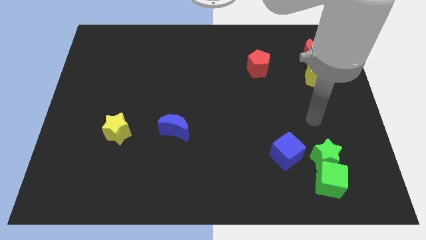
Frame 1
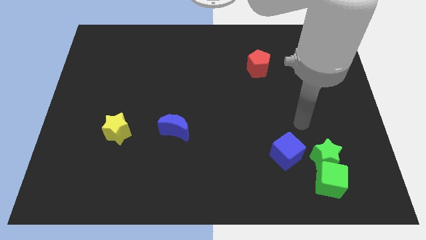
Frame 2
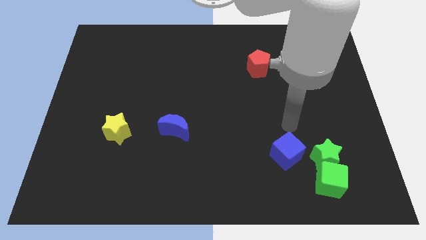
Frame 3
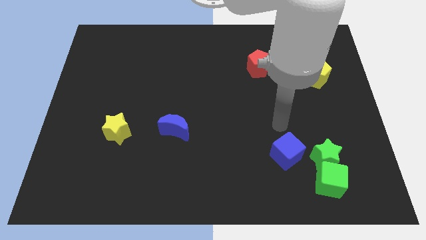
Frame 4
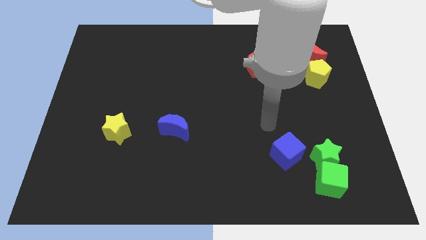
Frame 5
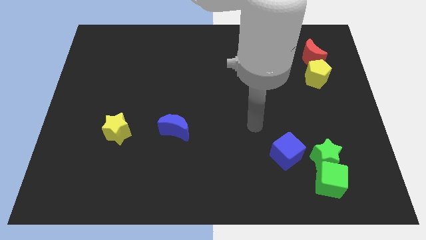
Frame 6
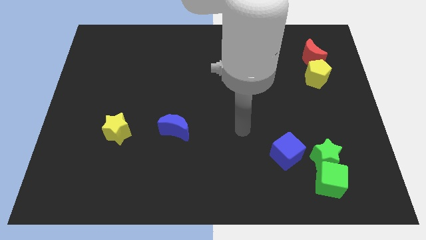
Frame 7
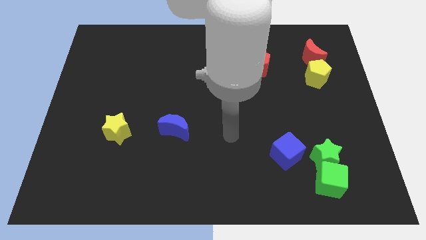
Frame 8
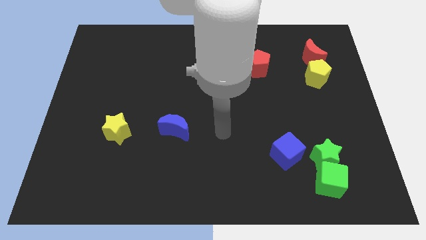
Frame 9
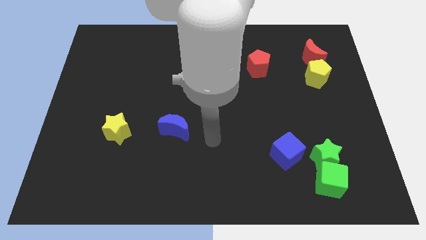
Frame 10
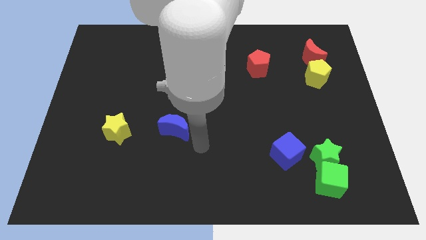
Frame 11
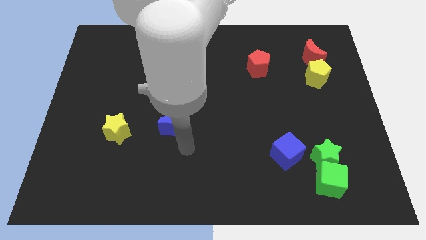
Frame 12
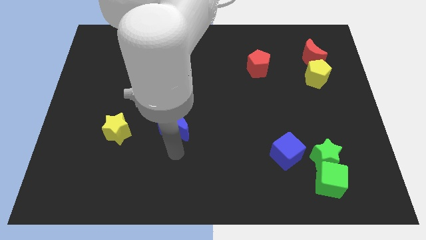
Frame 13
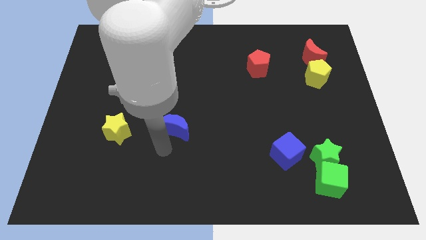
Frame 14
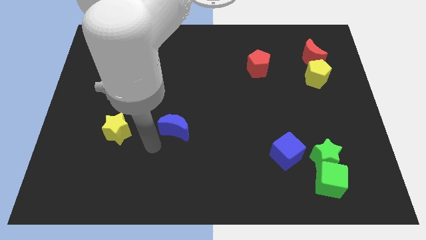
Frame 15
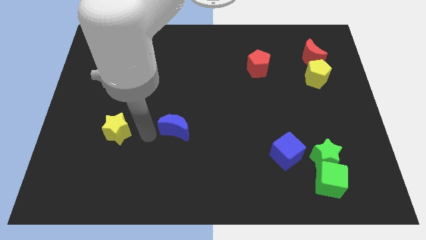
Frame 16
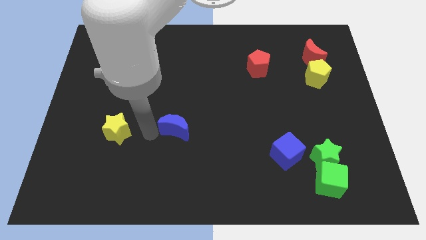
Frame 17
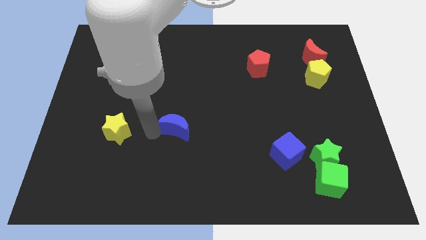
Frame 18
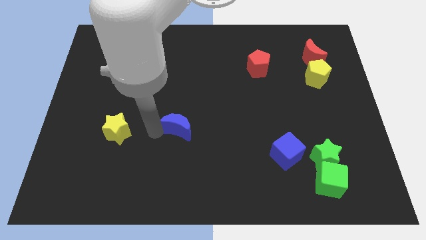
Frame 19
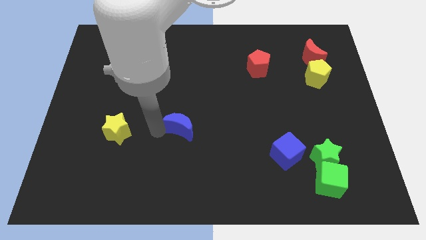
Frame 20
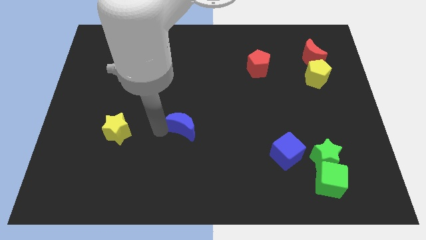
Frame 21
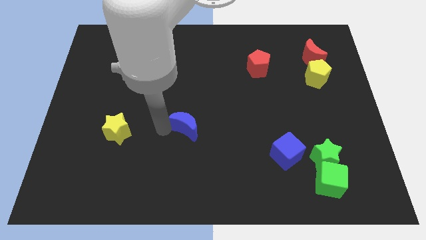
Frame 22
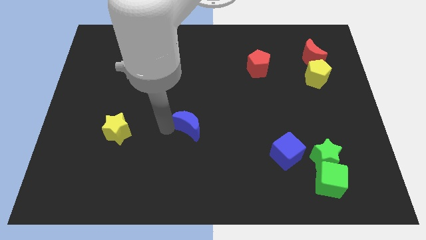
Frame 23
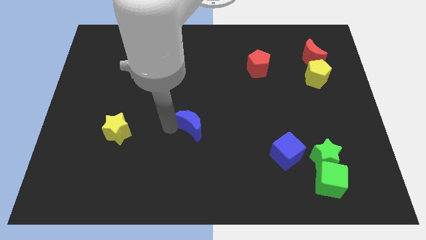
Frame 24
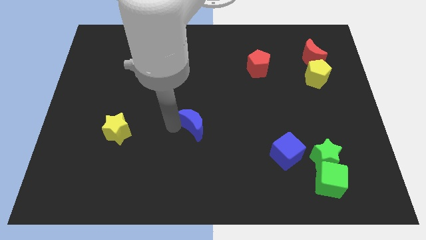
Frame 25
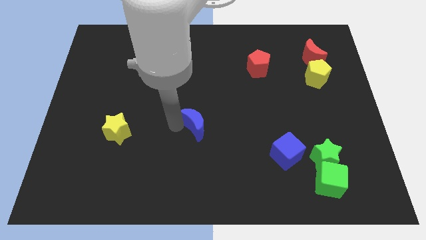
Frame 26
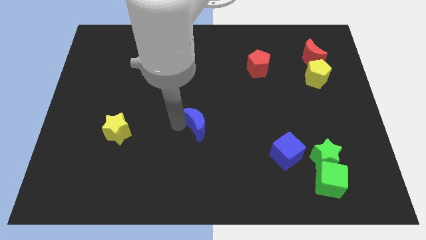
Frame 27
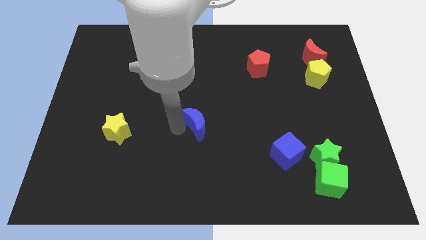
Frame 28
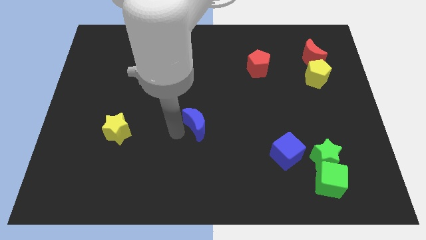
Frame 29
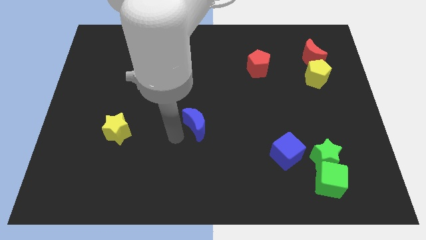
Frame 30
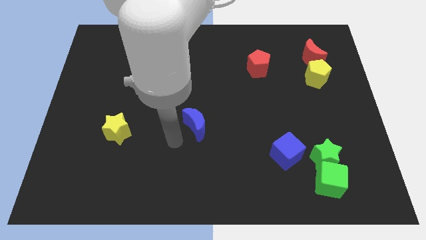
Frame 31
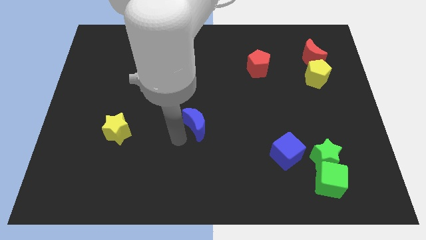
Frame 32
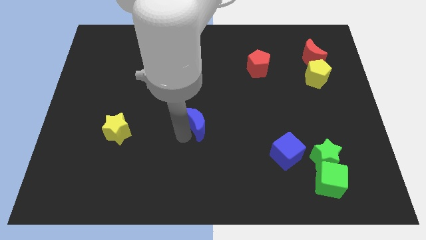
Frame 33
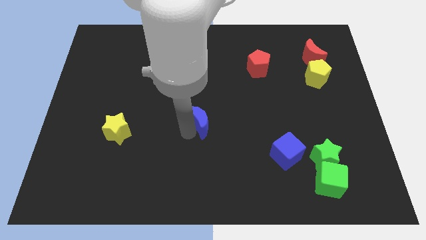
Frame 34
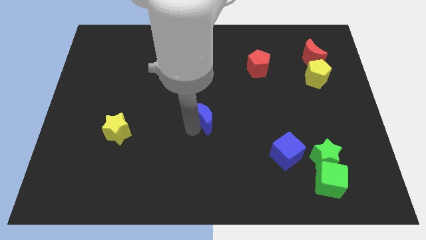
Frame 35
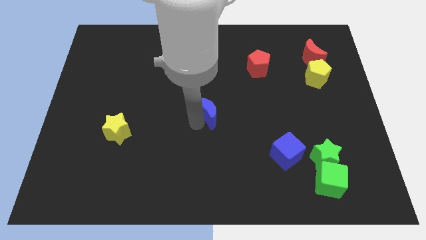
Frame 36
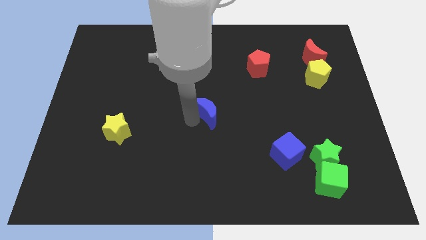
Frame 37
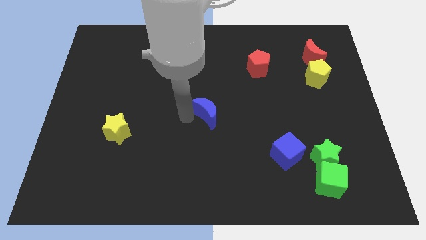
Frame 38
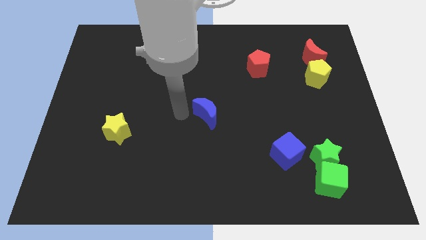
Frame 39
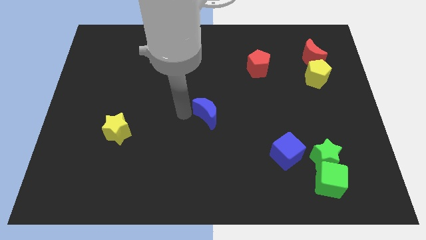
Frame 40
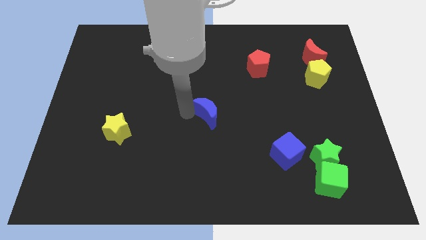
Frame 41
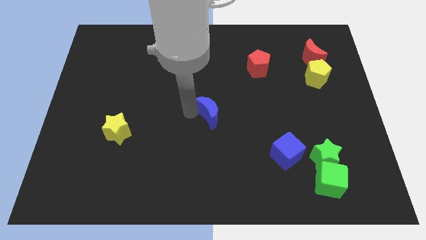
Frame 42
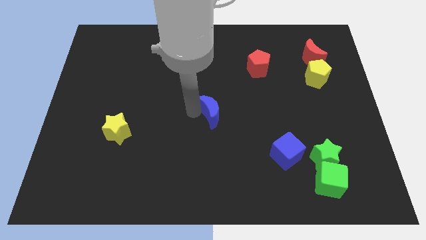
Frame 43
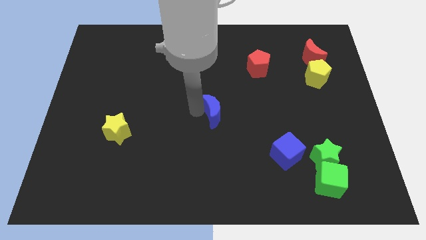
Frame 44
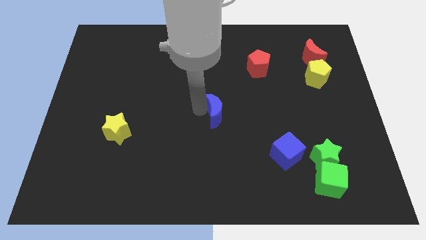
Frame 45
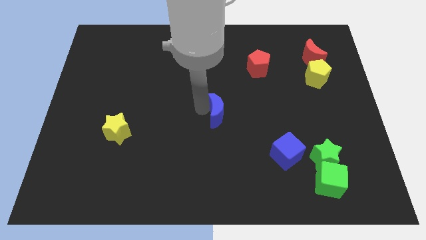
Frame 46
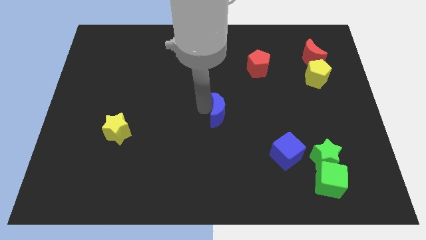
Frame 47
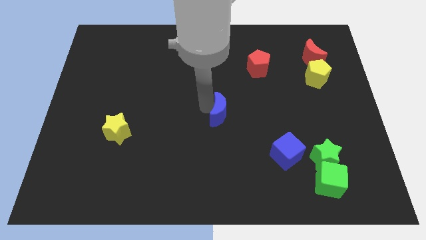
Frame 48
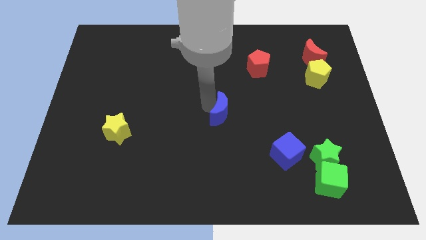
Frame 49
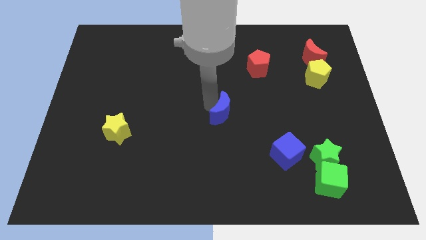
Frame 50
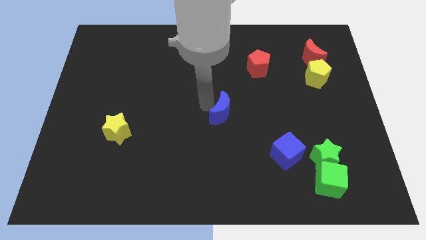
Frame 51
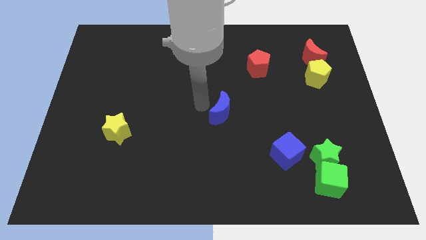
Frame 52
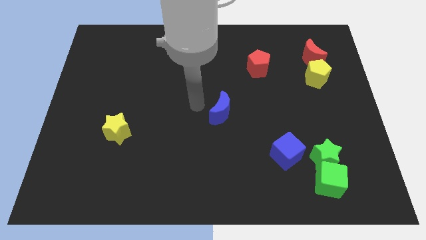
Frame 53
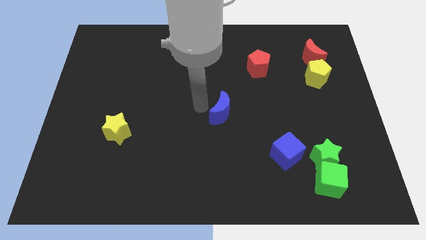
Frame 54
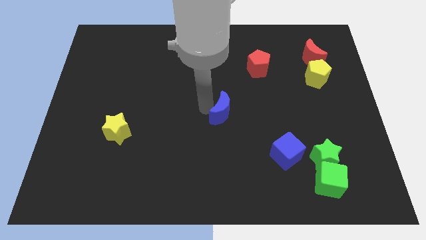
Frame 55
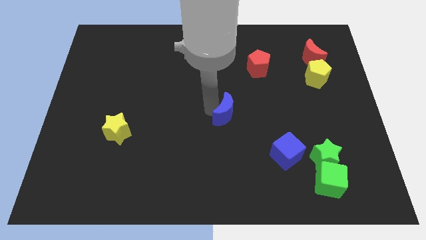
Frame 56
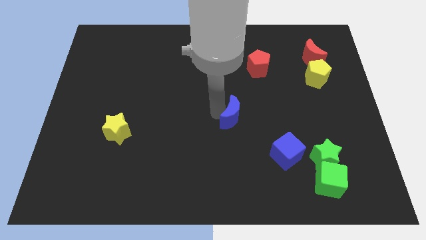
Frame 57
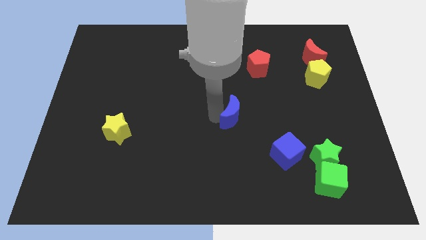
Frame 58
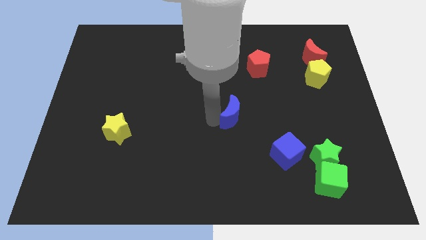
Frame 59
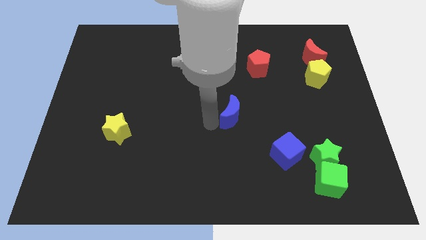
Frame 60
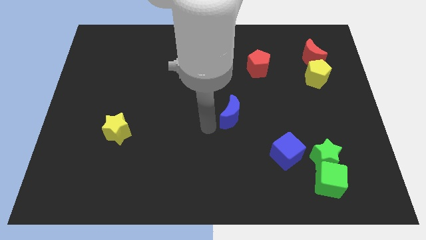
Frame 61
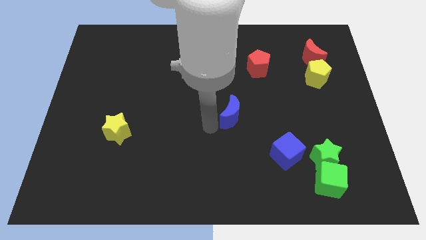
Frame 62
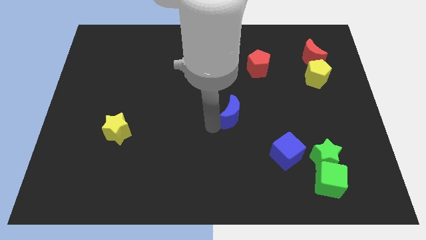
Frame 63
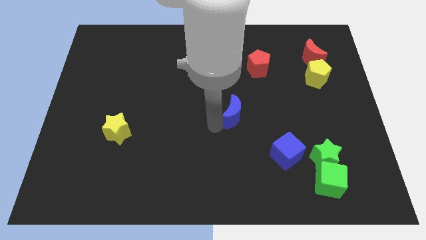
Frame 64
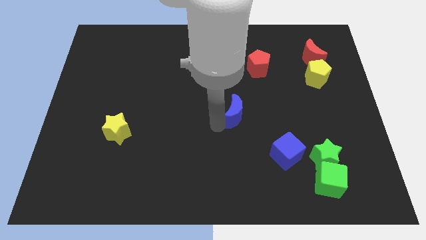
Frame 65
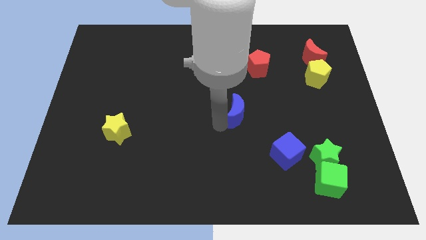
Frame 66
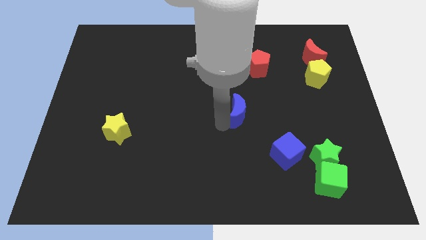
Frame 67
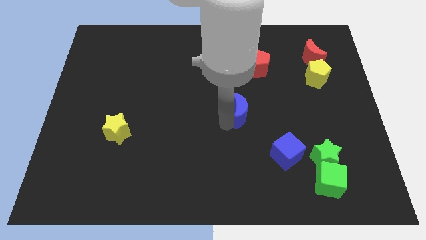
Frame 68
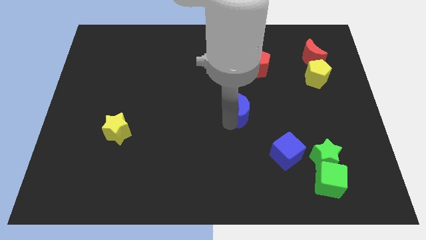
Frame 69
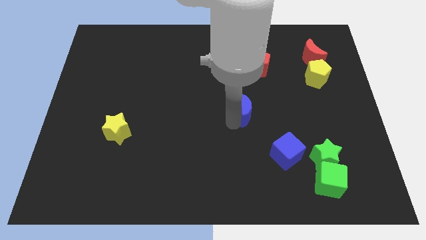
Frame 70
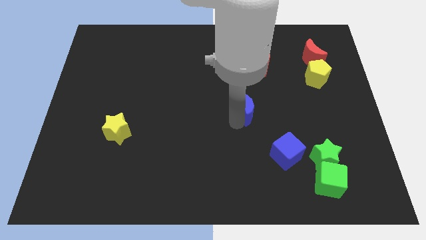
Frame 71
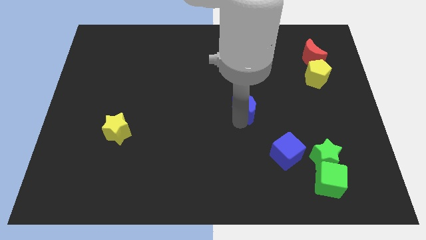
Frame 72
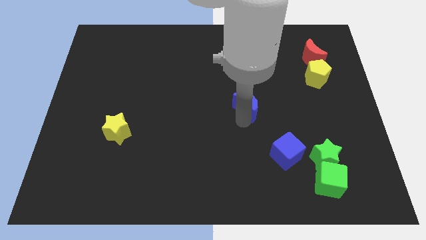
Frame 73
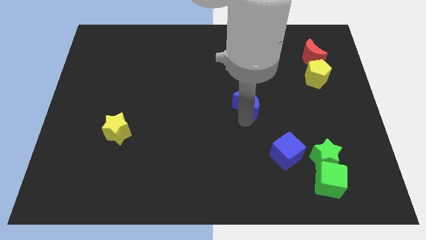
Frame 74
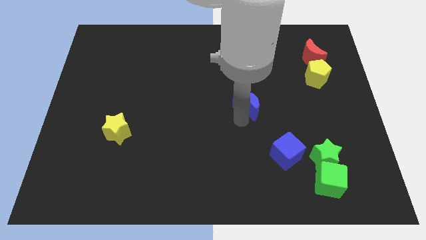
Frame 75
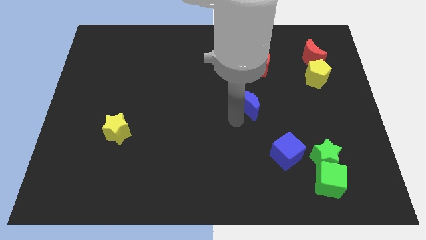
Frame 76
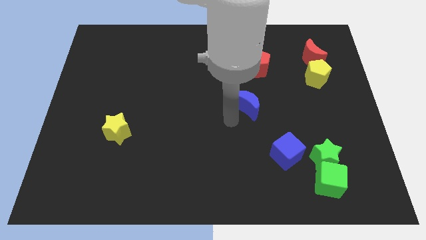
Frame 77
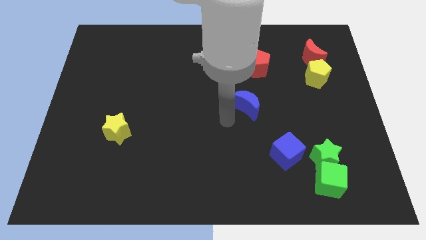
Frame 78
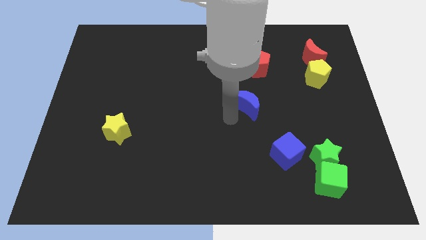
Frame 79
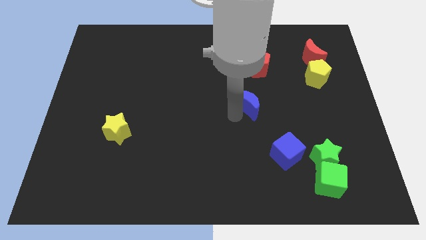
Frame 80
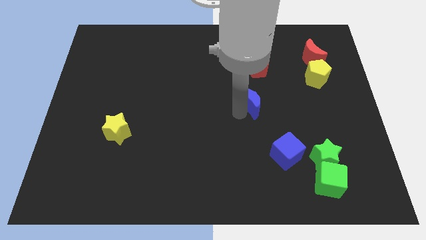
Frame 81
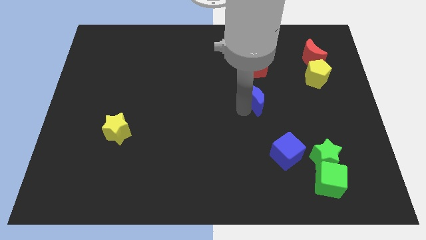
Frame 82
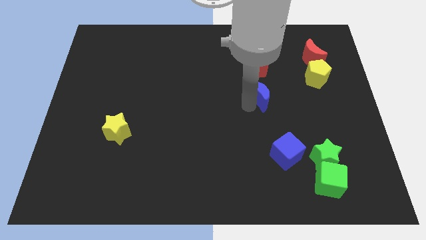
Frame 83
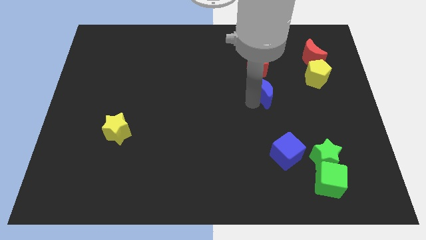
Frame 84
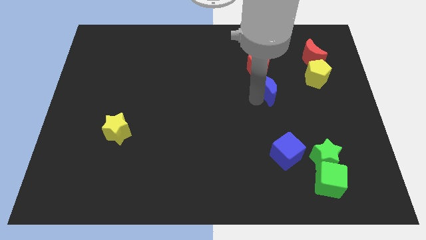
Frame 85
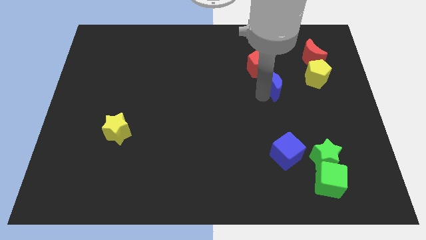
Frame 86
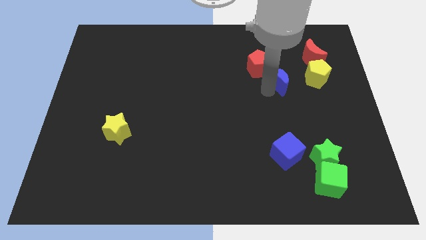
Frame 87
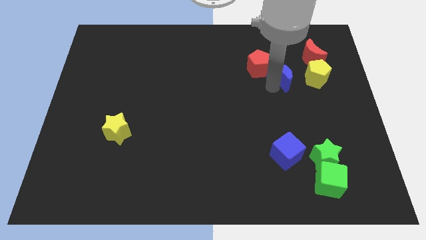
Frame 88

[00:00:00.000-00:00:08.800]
move the blue moon to the bottom left of the red moon
